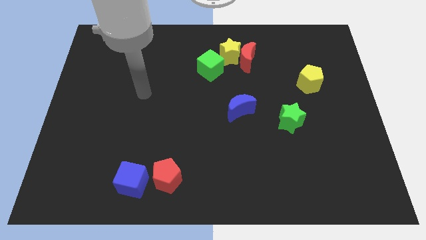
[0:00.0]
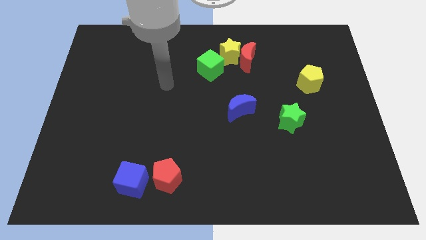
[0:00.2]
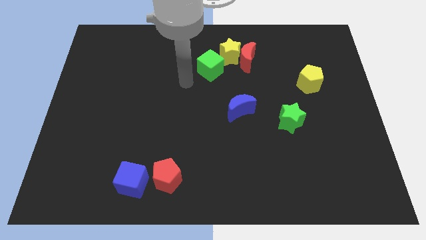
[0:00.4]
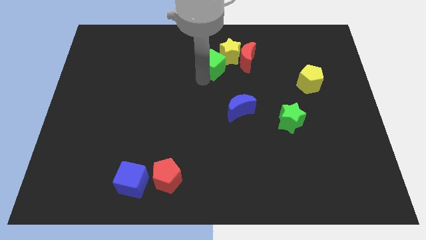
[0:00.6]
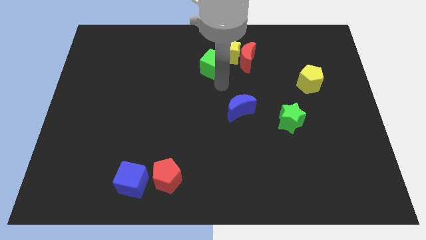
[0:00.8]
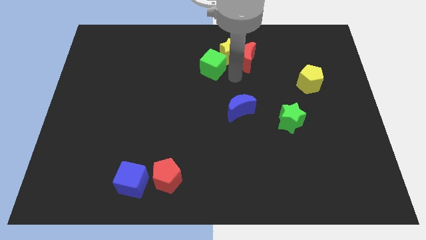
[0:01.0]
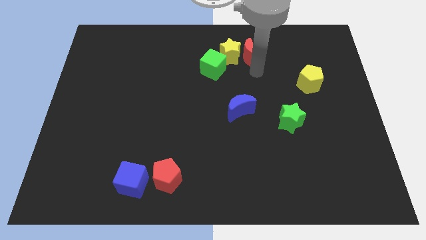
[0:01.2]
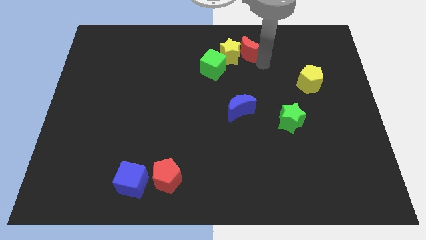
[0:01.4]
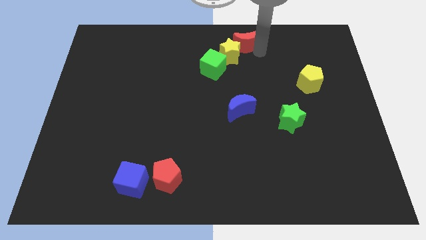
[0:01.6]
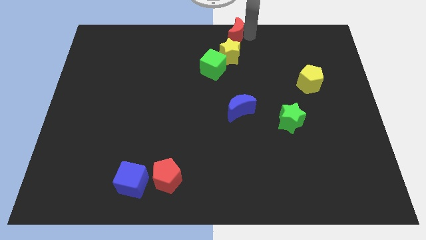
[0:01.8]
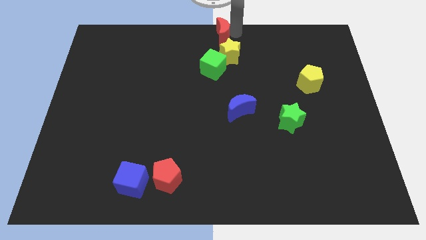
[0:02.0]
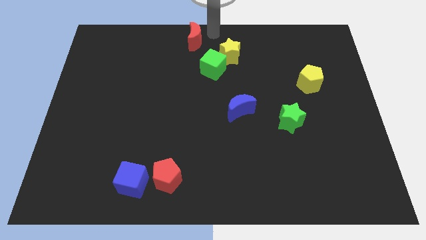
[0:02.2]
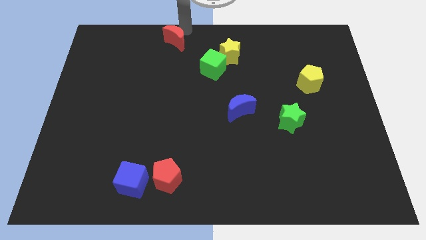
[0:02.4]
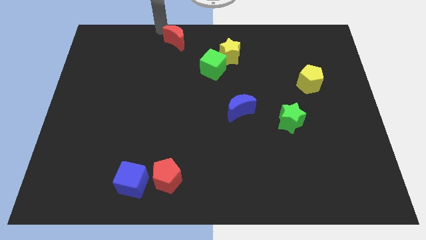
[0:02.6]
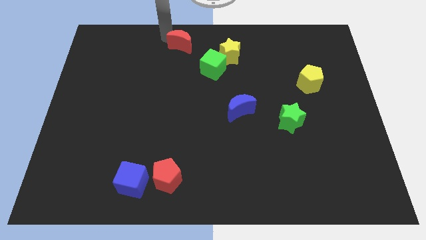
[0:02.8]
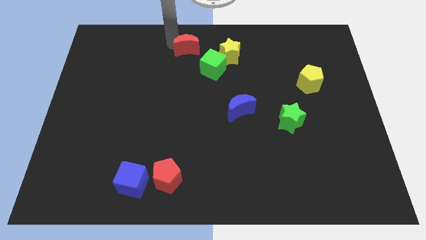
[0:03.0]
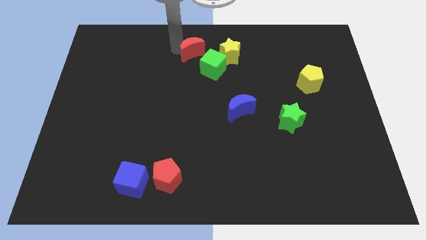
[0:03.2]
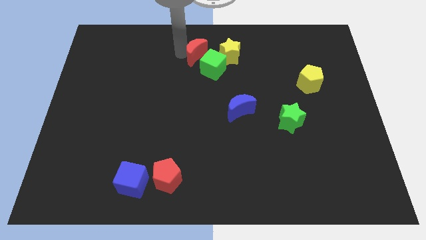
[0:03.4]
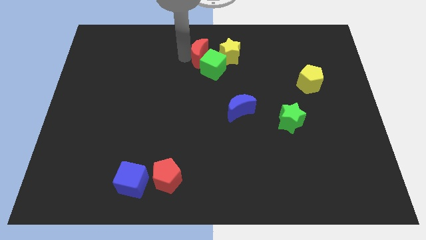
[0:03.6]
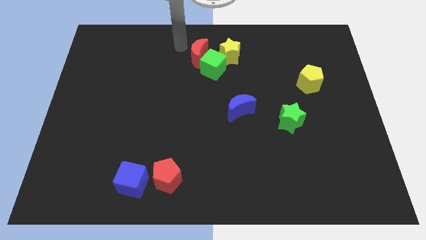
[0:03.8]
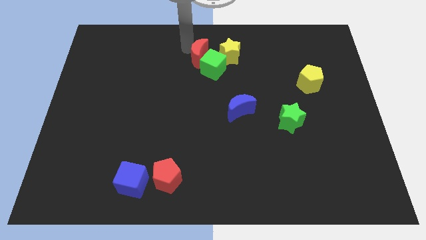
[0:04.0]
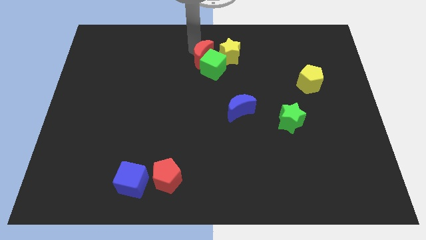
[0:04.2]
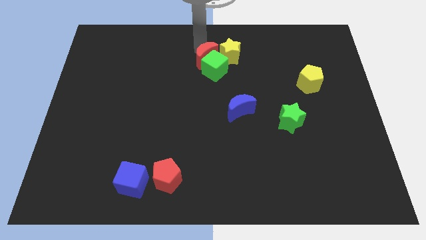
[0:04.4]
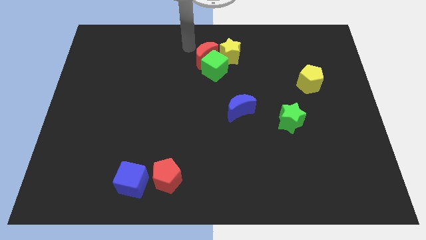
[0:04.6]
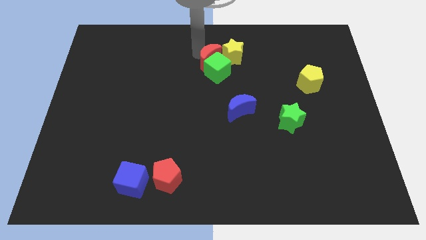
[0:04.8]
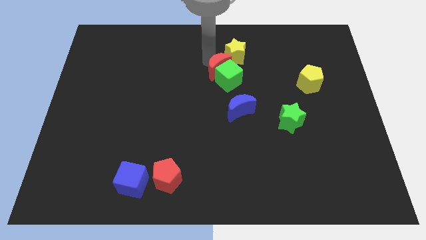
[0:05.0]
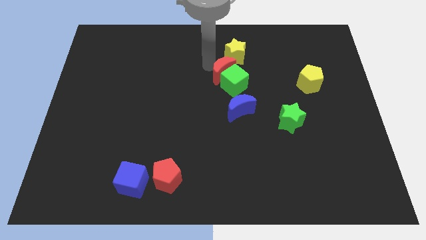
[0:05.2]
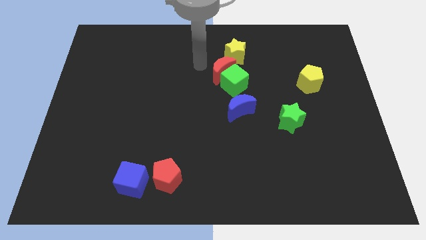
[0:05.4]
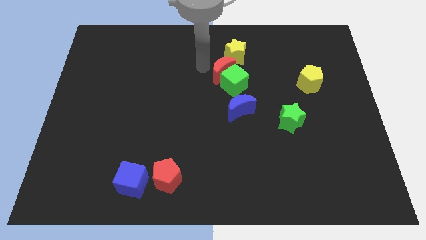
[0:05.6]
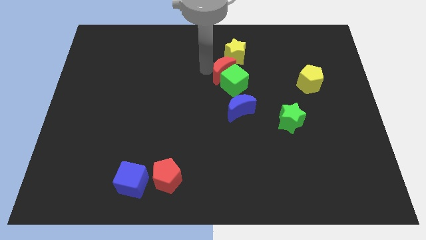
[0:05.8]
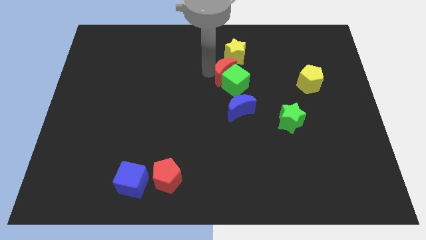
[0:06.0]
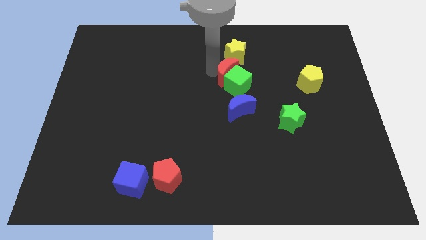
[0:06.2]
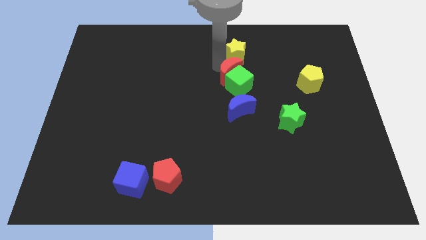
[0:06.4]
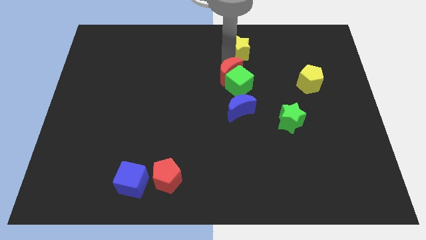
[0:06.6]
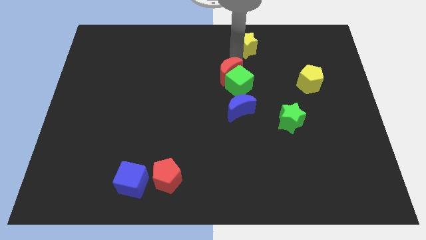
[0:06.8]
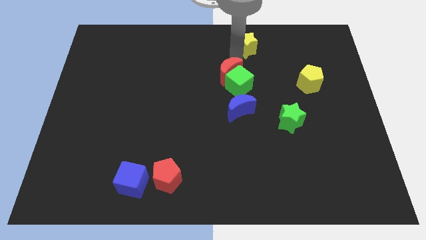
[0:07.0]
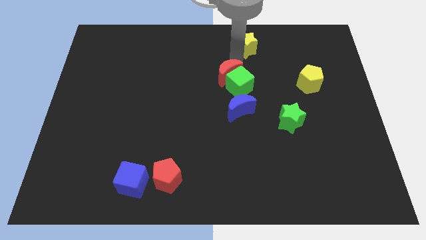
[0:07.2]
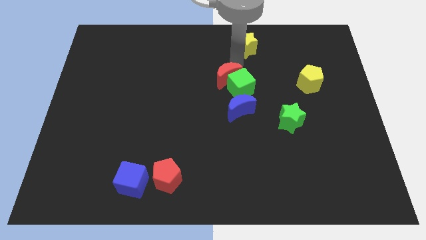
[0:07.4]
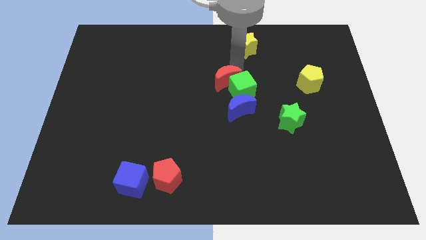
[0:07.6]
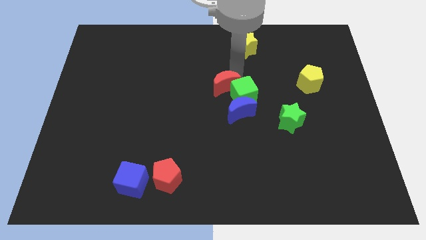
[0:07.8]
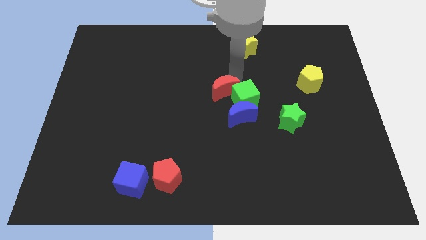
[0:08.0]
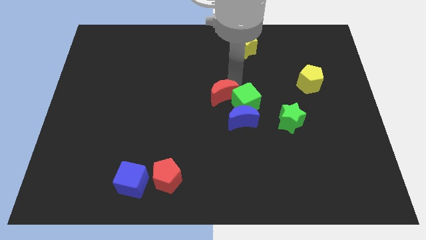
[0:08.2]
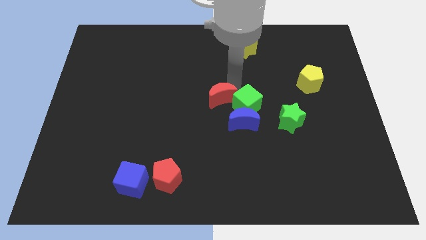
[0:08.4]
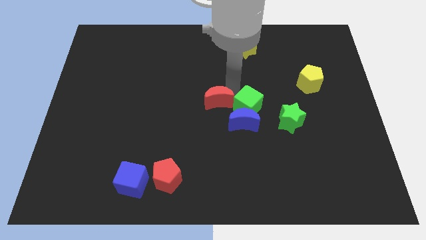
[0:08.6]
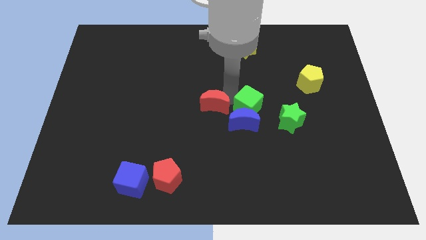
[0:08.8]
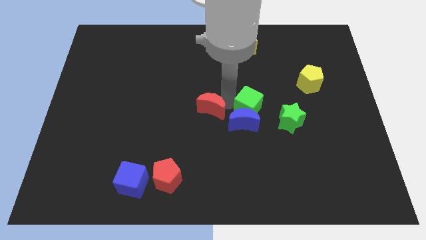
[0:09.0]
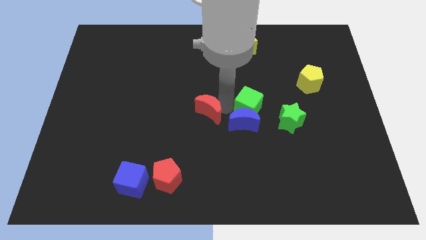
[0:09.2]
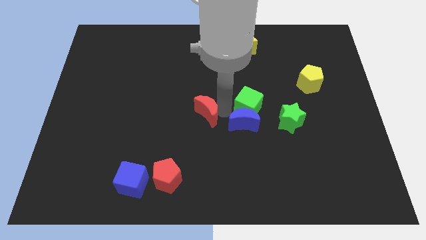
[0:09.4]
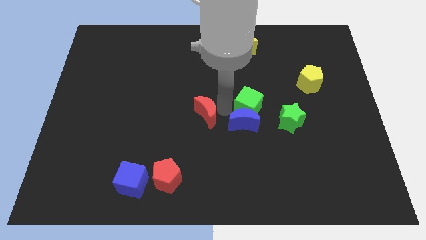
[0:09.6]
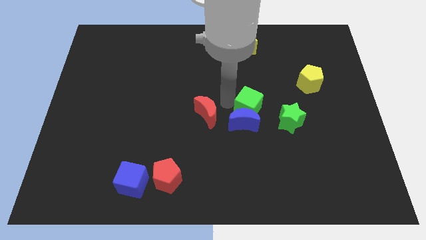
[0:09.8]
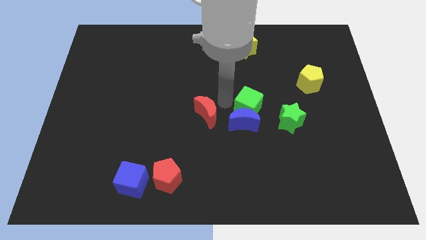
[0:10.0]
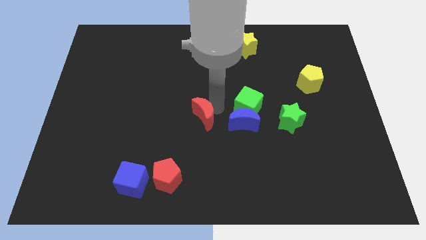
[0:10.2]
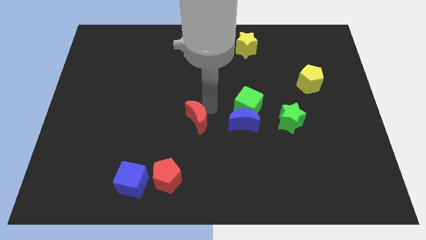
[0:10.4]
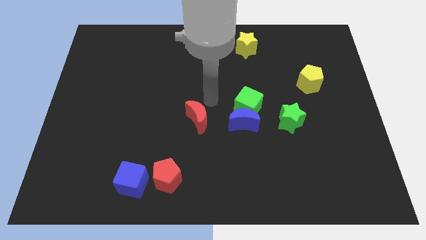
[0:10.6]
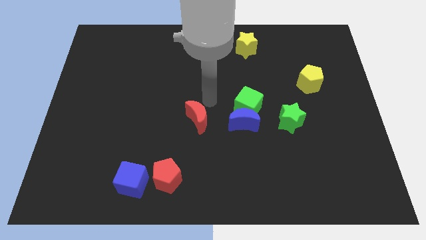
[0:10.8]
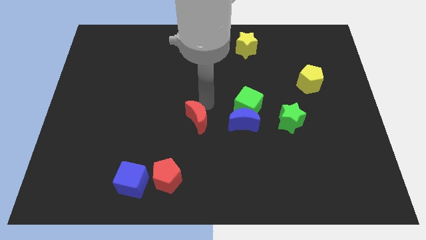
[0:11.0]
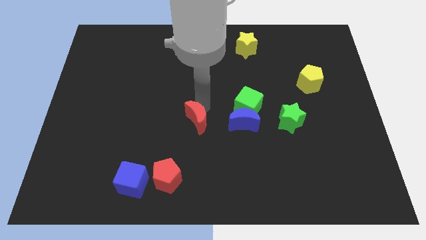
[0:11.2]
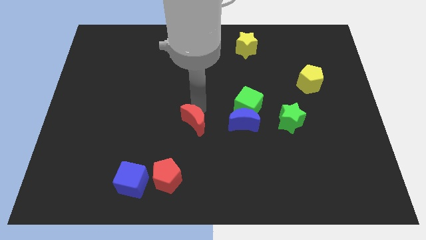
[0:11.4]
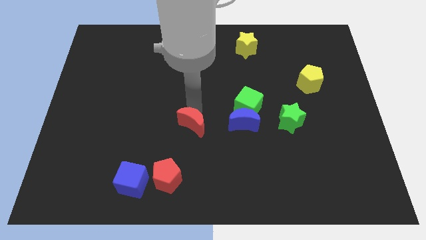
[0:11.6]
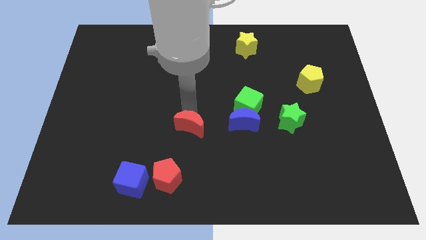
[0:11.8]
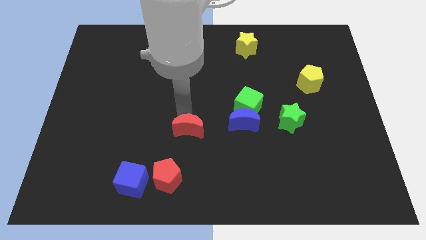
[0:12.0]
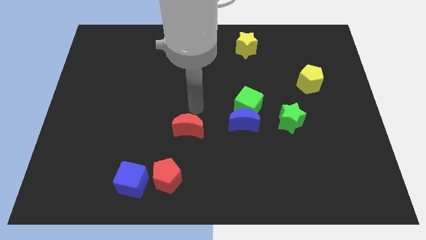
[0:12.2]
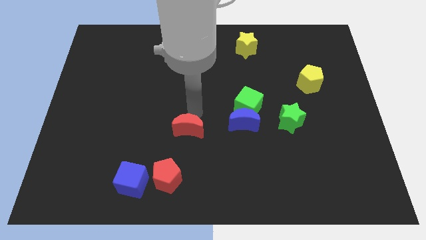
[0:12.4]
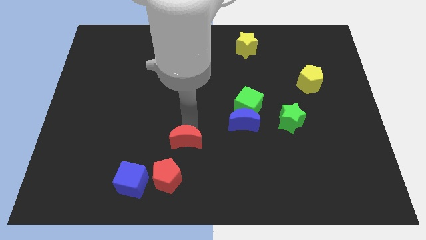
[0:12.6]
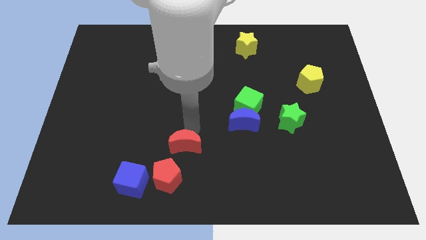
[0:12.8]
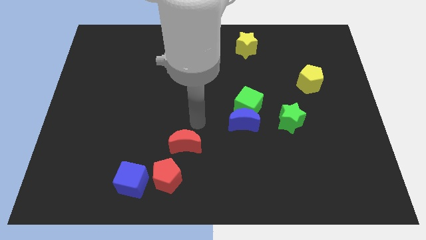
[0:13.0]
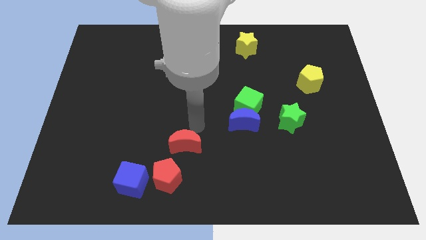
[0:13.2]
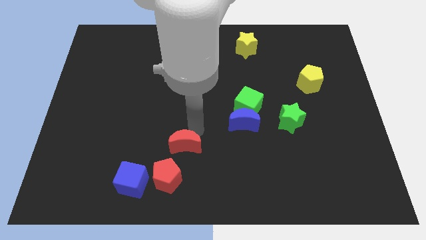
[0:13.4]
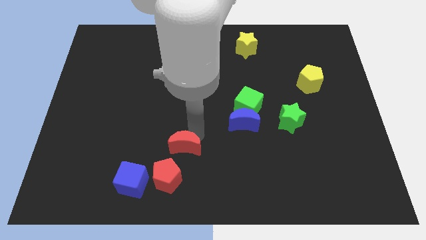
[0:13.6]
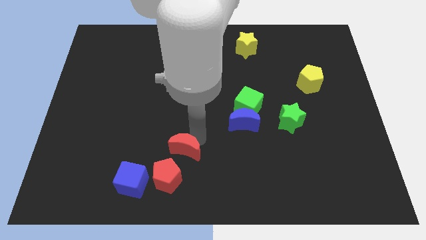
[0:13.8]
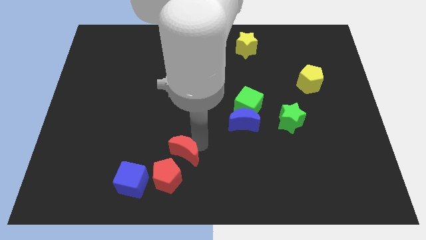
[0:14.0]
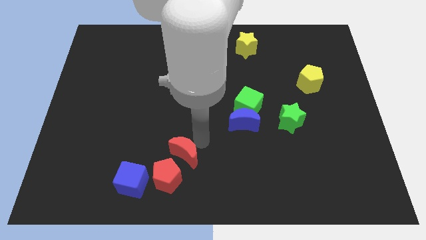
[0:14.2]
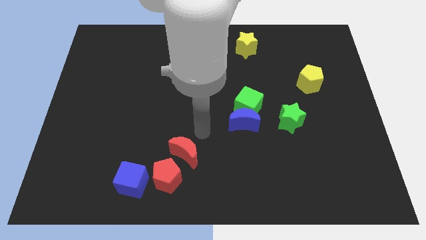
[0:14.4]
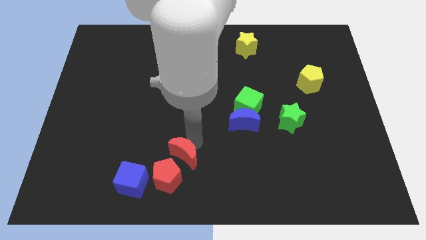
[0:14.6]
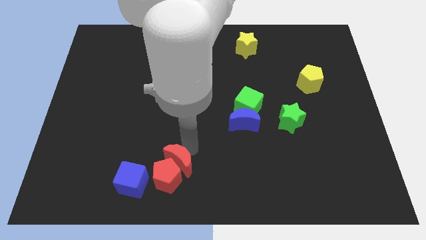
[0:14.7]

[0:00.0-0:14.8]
push the red moon next to the red pentagon
